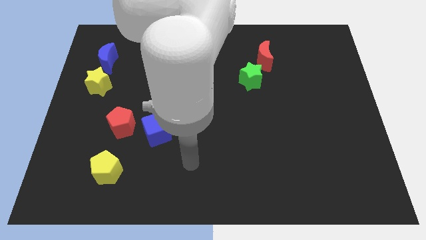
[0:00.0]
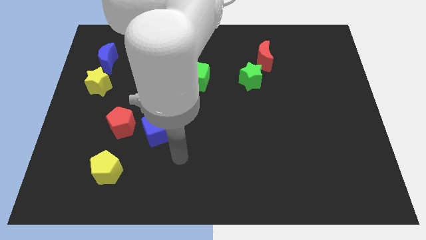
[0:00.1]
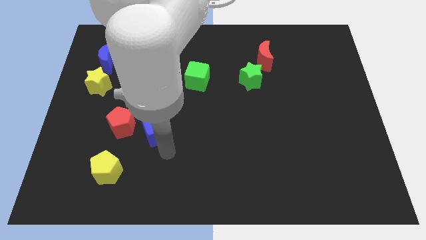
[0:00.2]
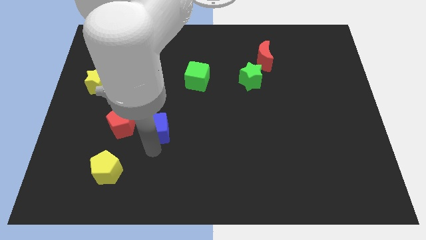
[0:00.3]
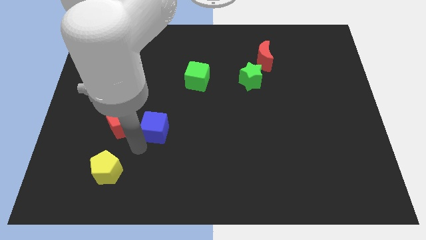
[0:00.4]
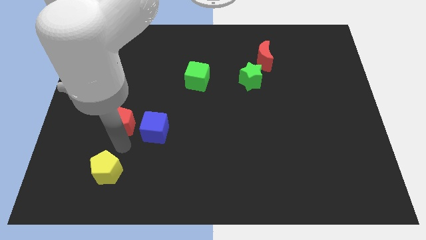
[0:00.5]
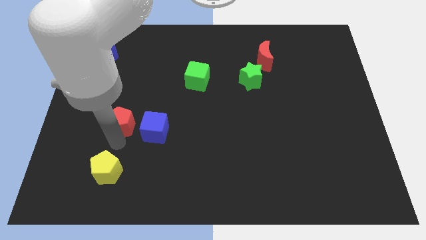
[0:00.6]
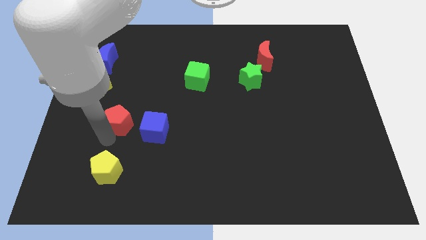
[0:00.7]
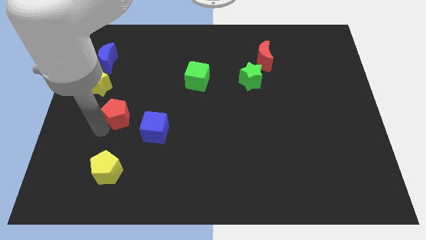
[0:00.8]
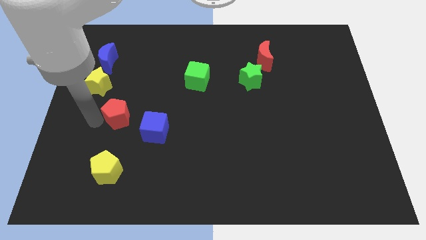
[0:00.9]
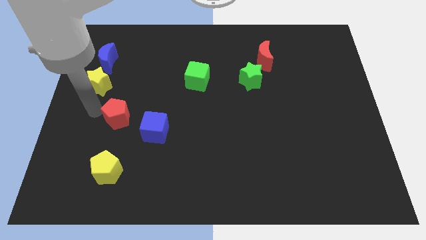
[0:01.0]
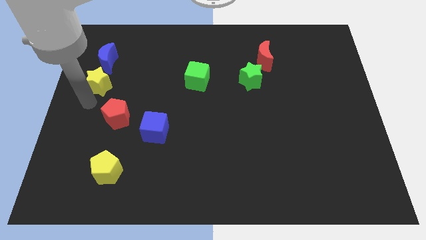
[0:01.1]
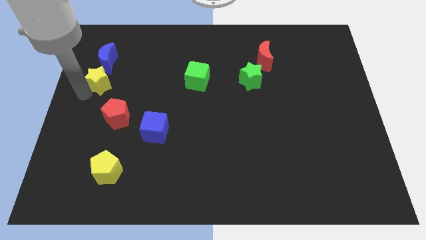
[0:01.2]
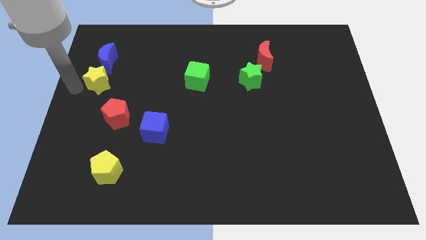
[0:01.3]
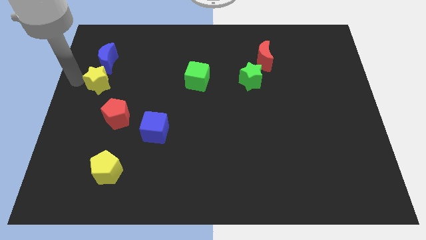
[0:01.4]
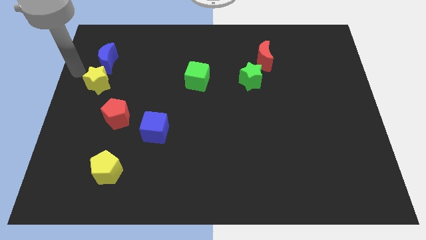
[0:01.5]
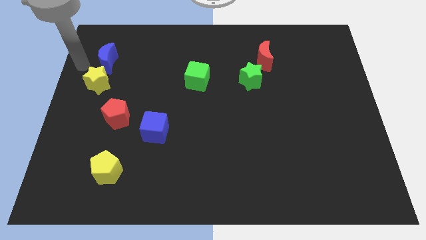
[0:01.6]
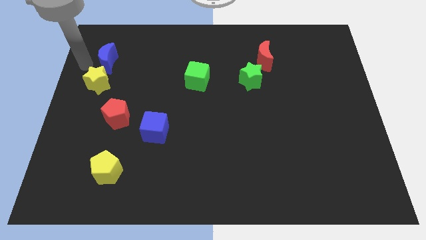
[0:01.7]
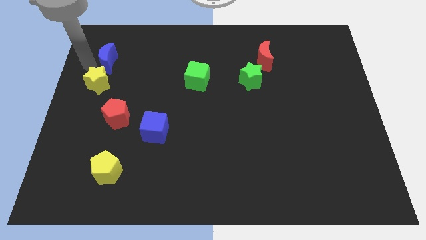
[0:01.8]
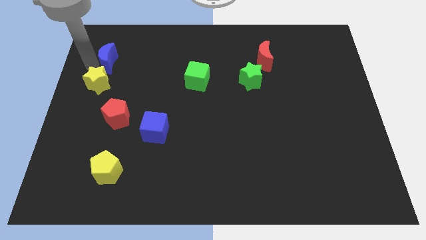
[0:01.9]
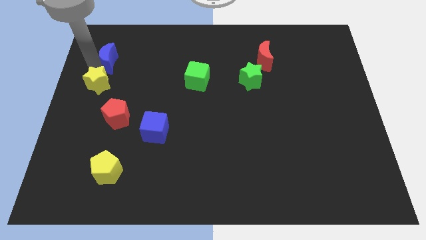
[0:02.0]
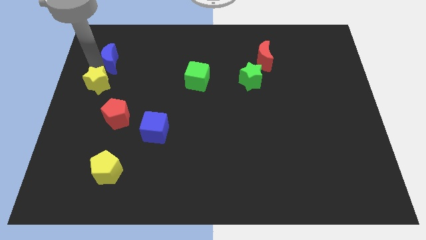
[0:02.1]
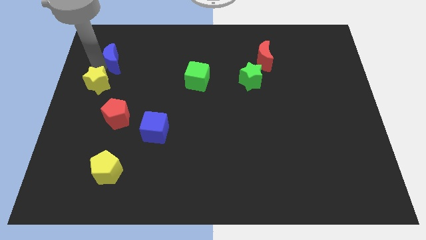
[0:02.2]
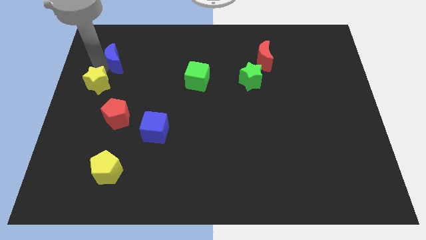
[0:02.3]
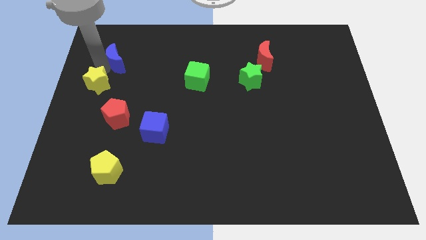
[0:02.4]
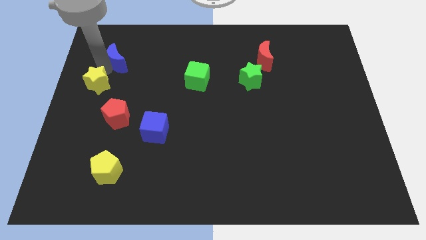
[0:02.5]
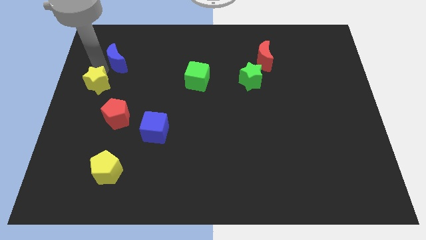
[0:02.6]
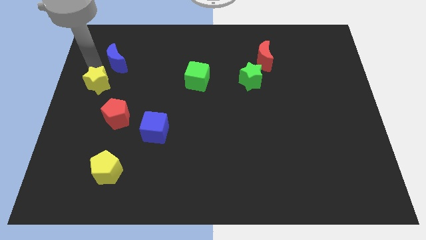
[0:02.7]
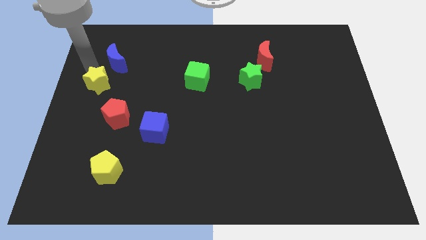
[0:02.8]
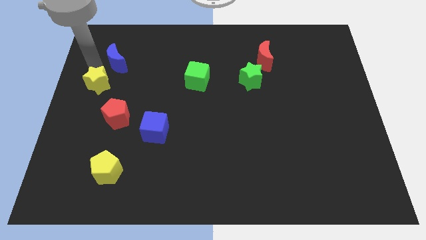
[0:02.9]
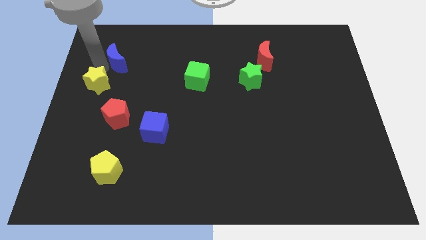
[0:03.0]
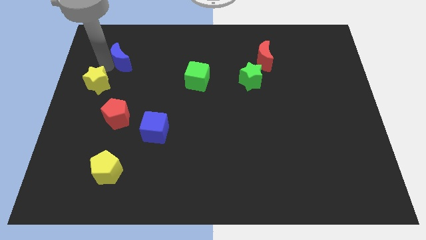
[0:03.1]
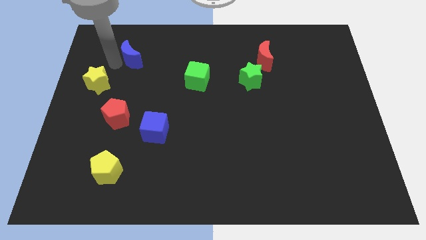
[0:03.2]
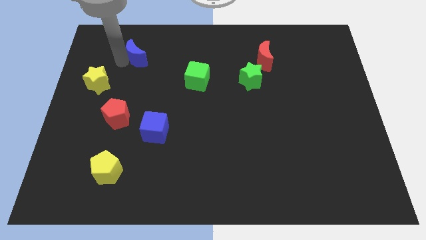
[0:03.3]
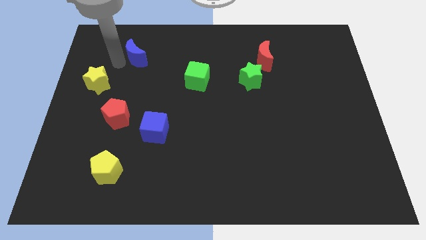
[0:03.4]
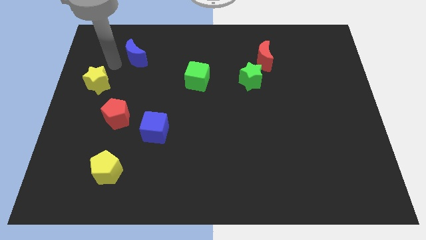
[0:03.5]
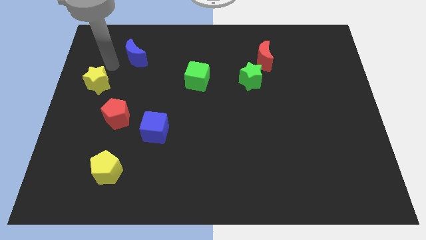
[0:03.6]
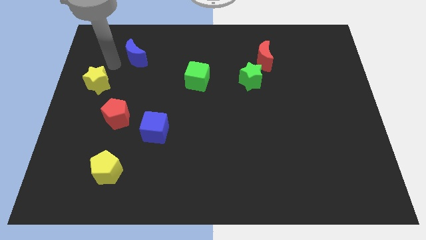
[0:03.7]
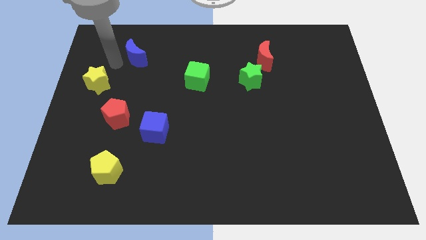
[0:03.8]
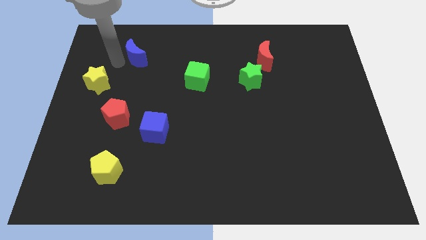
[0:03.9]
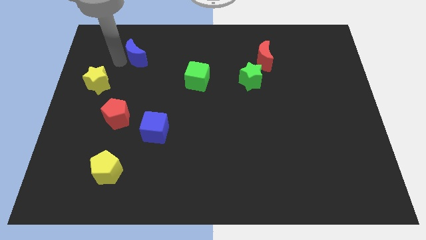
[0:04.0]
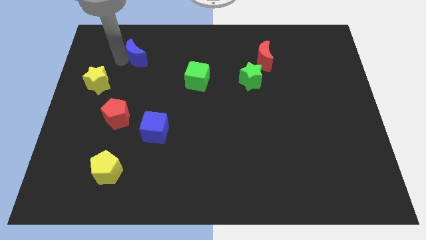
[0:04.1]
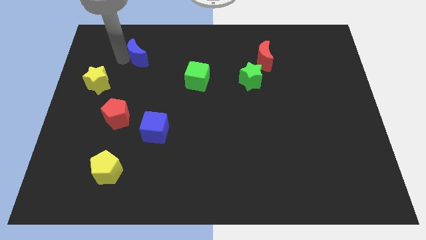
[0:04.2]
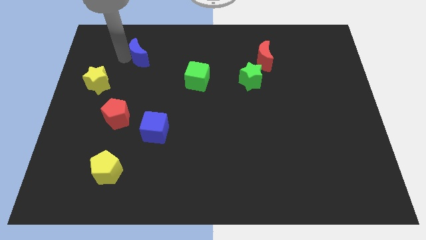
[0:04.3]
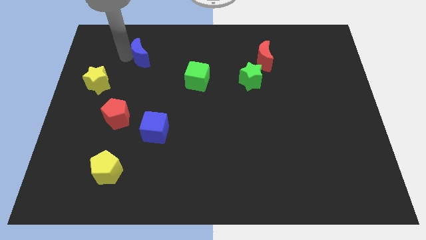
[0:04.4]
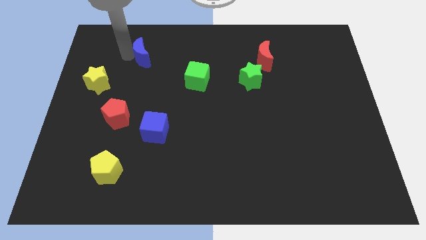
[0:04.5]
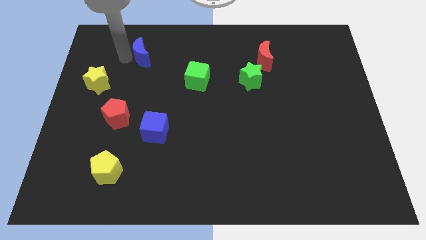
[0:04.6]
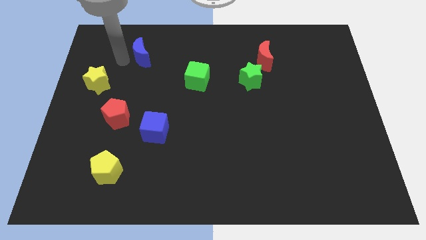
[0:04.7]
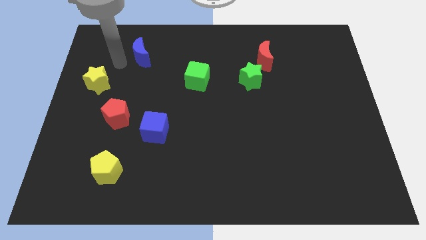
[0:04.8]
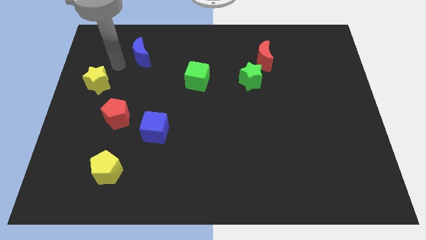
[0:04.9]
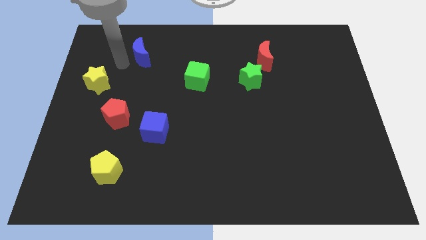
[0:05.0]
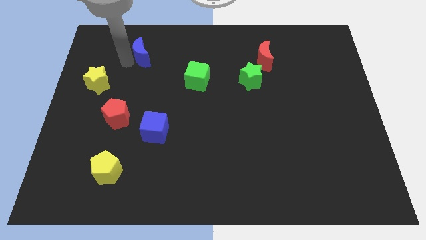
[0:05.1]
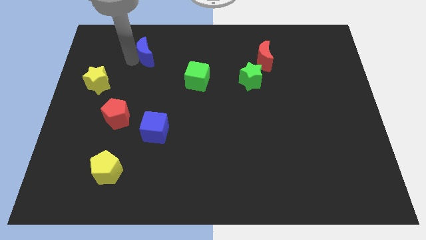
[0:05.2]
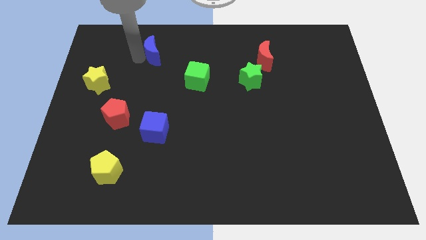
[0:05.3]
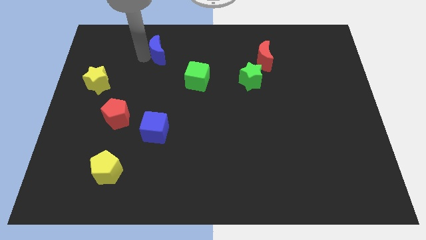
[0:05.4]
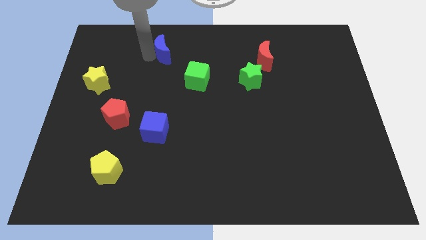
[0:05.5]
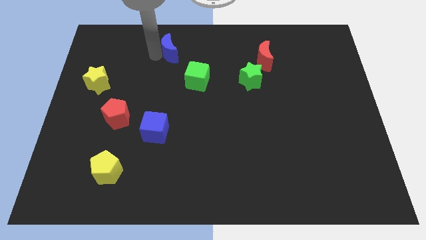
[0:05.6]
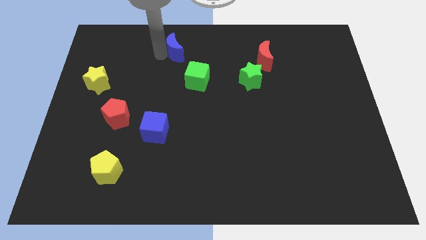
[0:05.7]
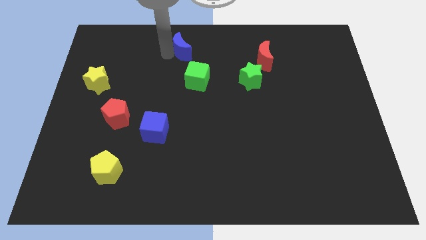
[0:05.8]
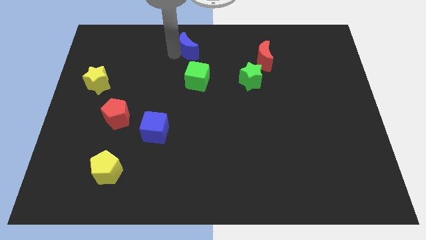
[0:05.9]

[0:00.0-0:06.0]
push the blue moon to the top

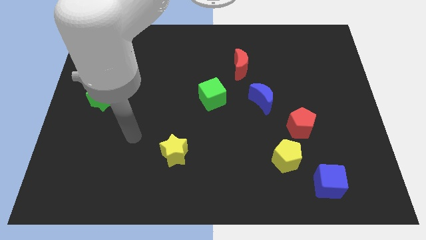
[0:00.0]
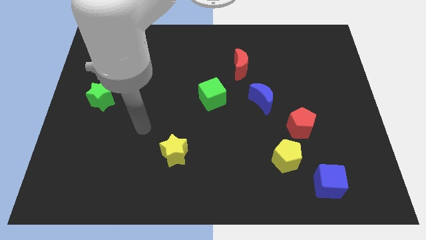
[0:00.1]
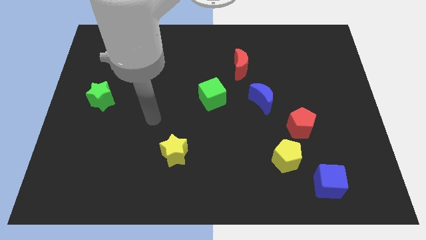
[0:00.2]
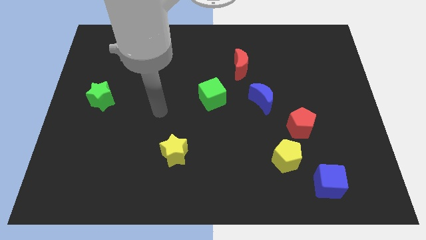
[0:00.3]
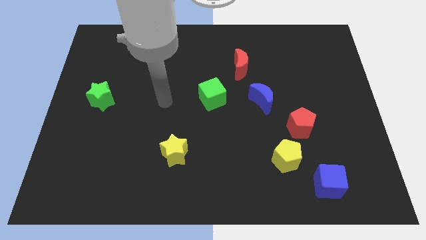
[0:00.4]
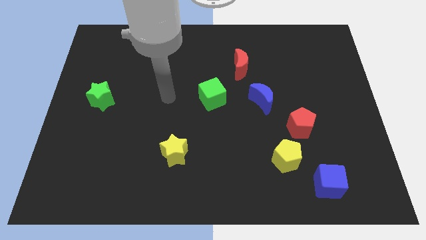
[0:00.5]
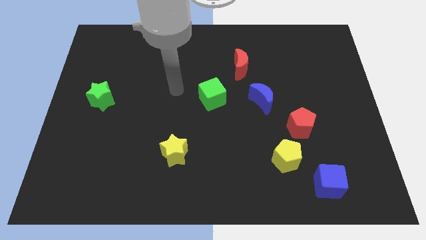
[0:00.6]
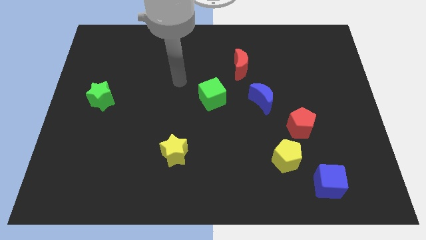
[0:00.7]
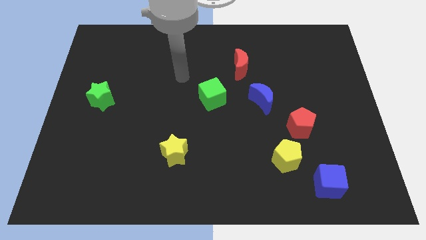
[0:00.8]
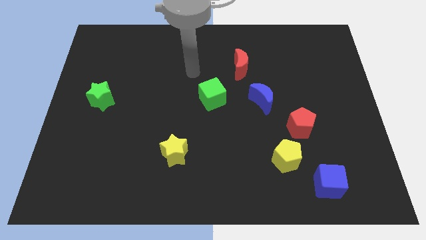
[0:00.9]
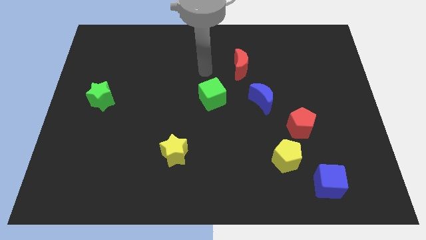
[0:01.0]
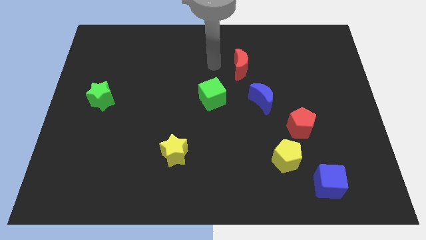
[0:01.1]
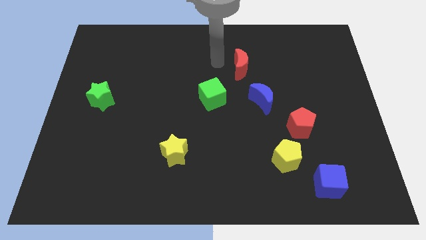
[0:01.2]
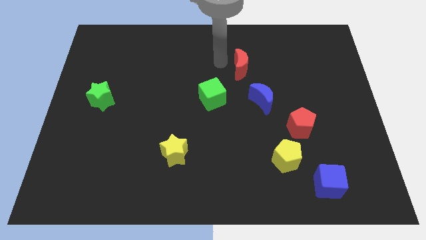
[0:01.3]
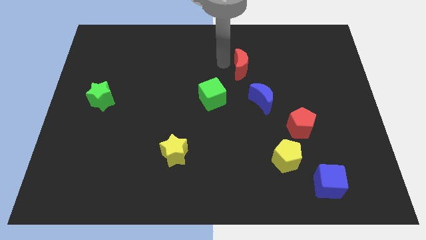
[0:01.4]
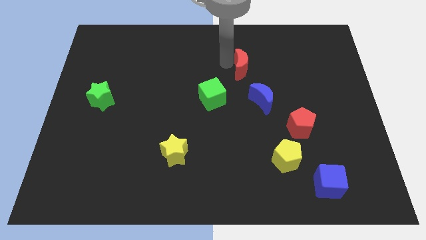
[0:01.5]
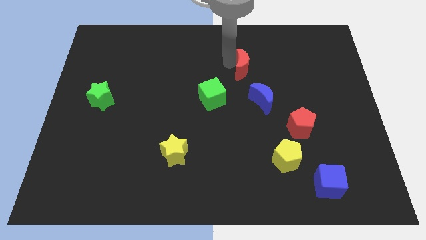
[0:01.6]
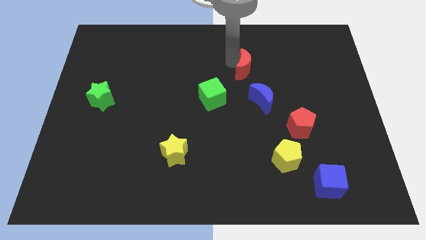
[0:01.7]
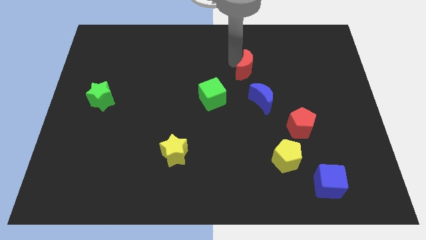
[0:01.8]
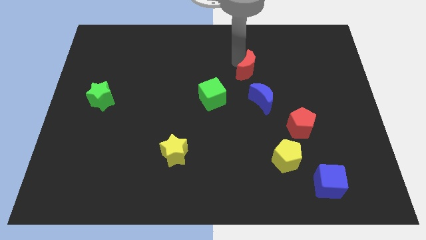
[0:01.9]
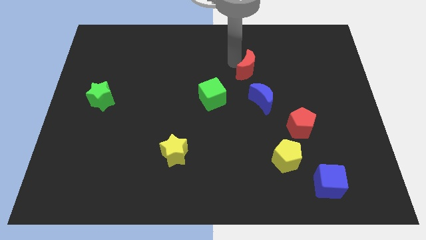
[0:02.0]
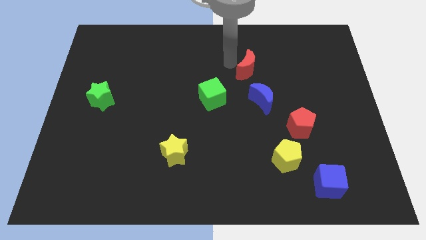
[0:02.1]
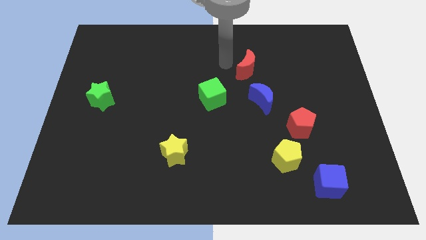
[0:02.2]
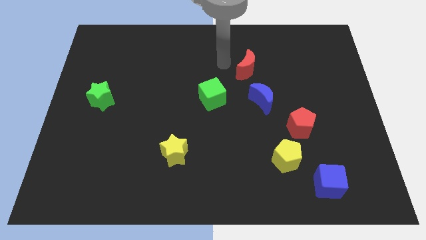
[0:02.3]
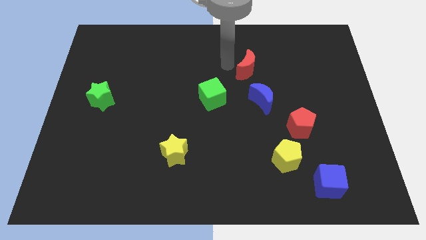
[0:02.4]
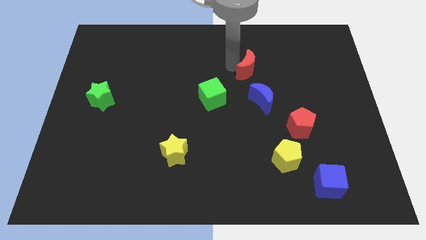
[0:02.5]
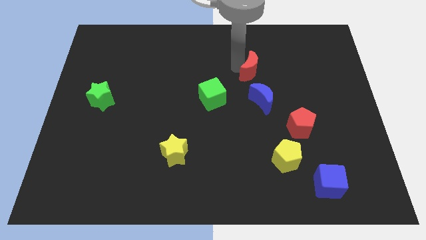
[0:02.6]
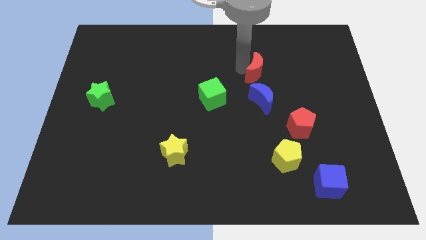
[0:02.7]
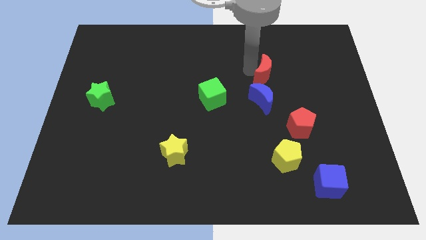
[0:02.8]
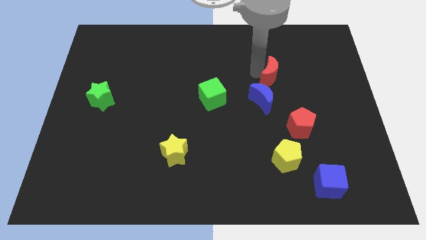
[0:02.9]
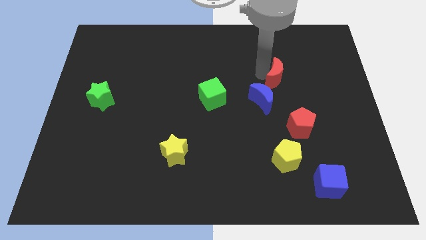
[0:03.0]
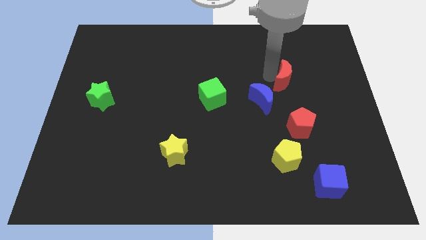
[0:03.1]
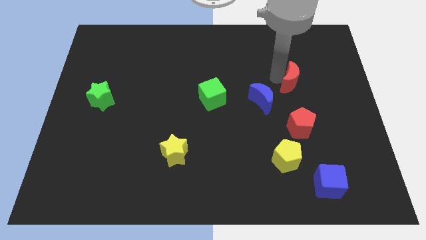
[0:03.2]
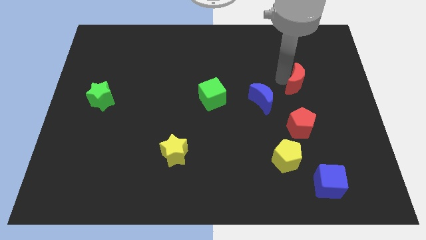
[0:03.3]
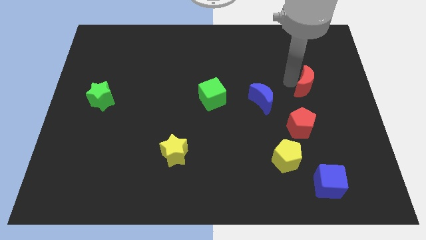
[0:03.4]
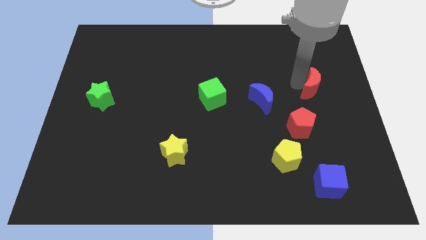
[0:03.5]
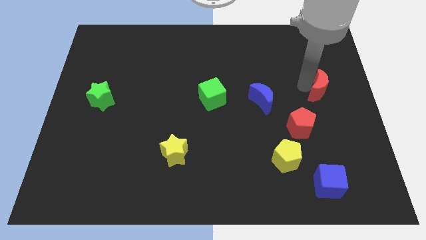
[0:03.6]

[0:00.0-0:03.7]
put the red moon to the right side
